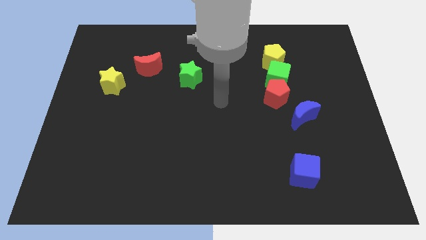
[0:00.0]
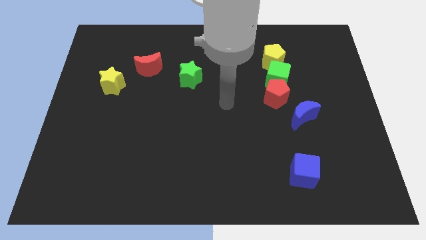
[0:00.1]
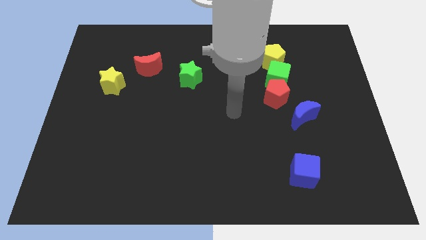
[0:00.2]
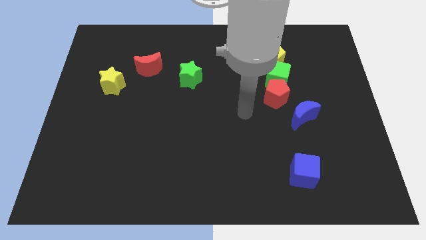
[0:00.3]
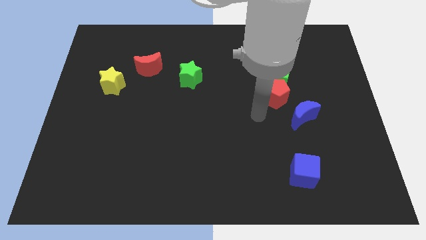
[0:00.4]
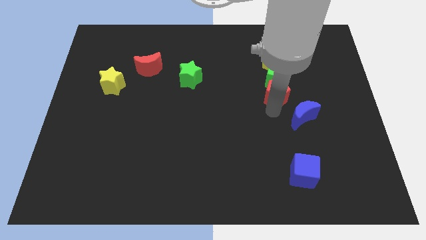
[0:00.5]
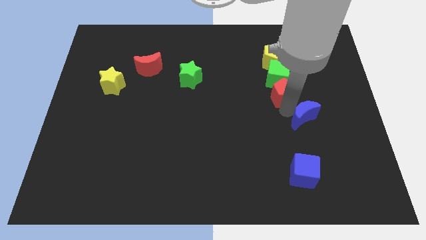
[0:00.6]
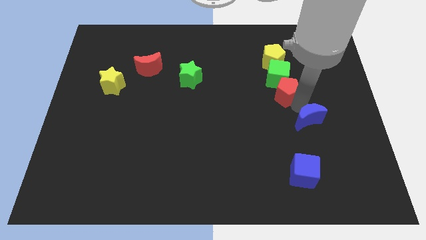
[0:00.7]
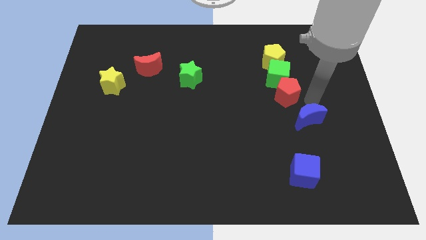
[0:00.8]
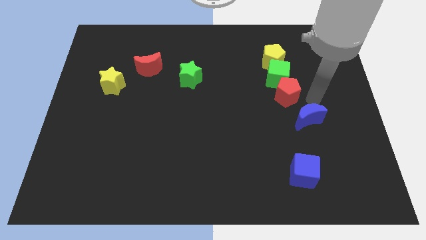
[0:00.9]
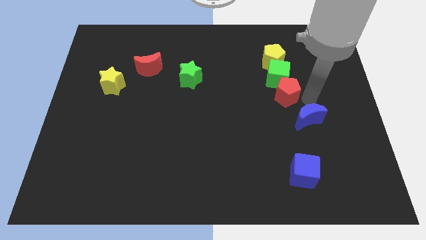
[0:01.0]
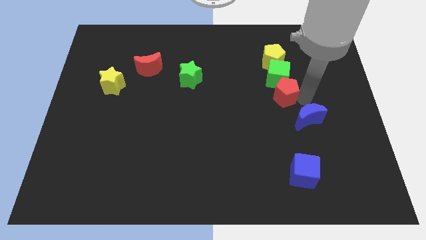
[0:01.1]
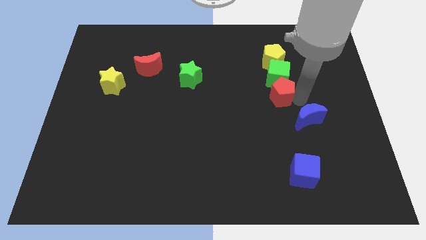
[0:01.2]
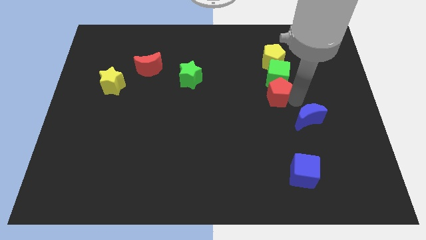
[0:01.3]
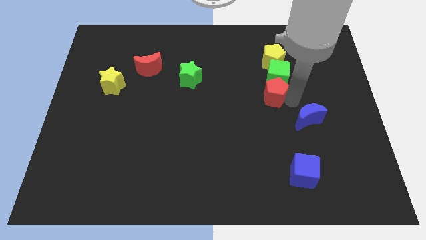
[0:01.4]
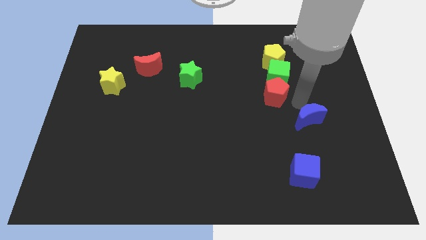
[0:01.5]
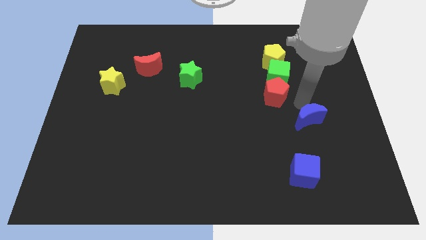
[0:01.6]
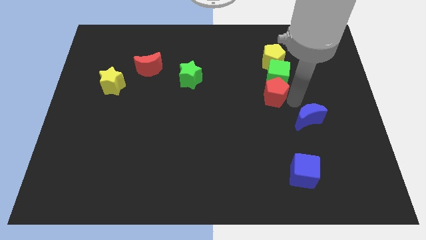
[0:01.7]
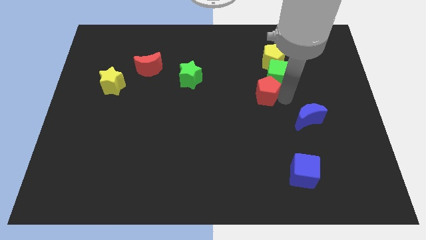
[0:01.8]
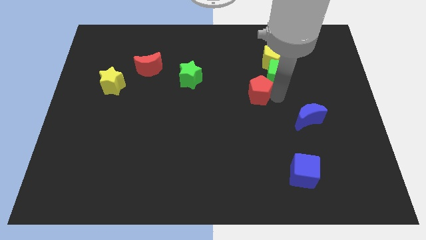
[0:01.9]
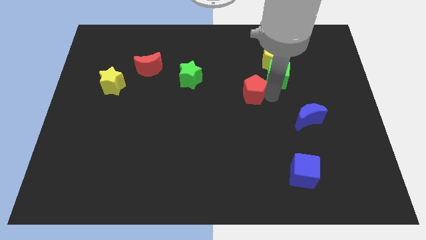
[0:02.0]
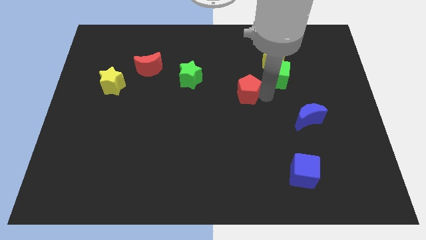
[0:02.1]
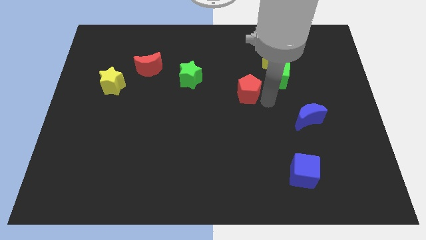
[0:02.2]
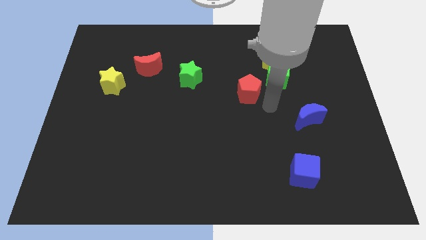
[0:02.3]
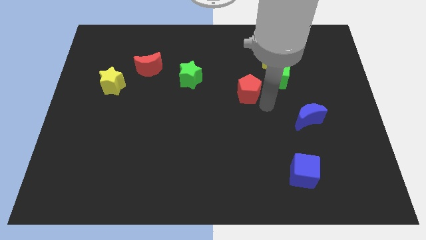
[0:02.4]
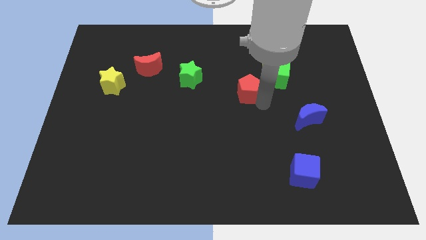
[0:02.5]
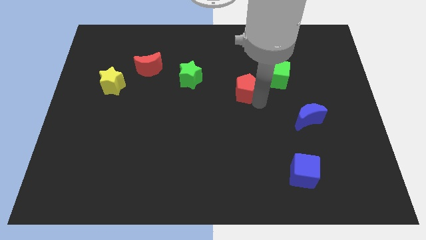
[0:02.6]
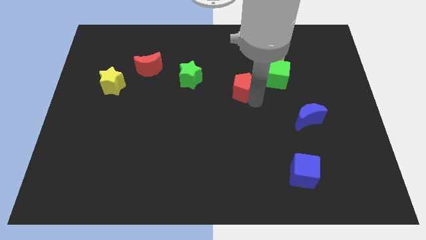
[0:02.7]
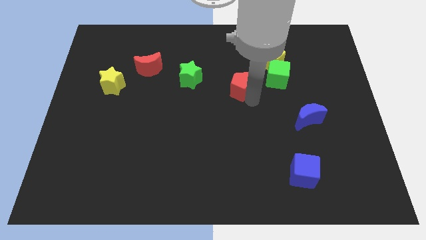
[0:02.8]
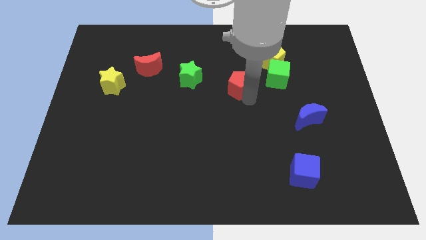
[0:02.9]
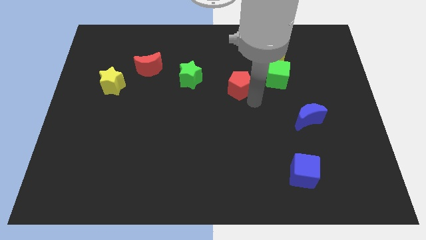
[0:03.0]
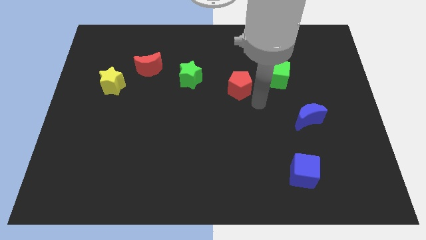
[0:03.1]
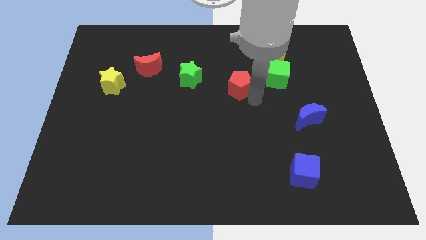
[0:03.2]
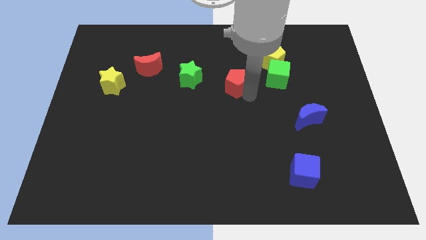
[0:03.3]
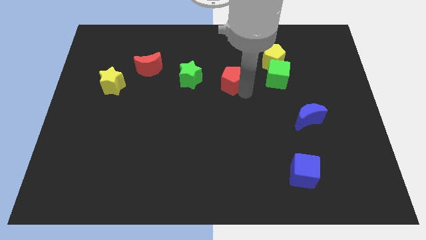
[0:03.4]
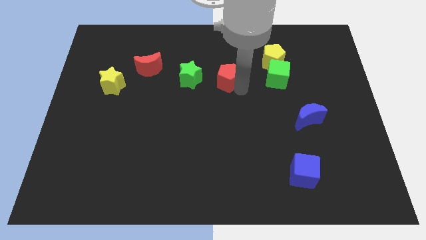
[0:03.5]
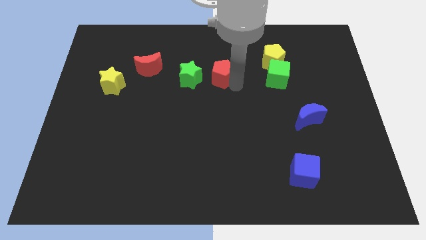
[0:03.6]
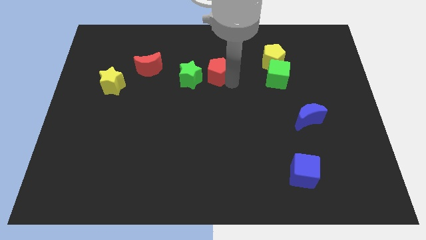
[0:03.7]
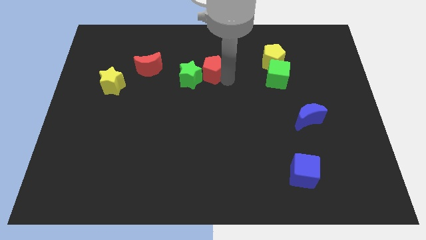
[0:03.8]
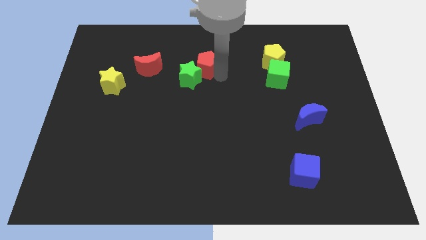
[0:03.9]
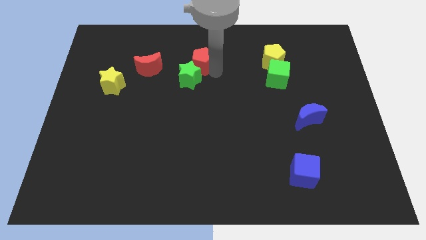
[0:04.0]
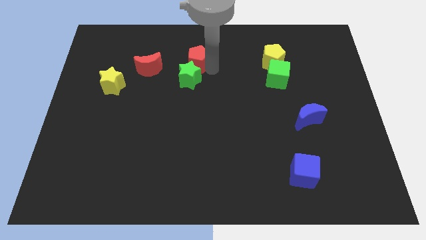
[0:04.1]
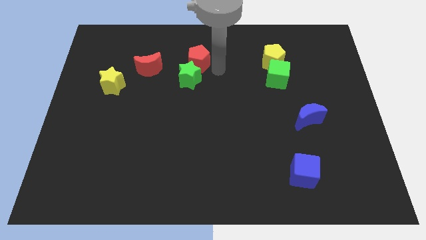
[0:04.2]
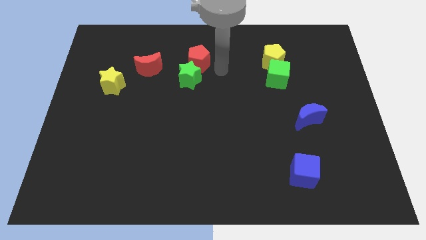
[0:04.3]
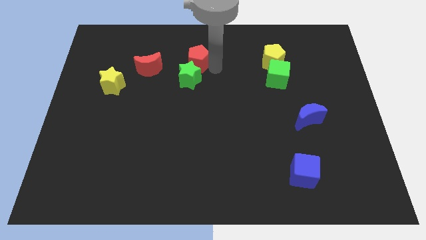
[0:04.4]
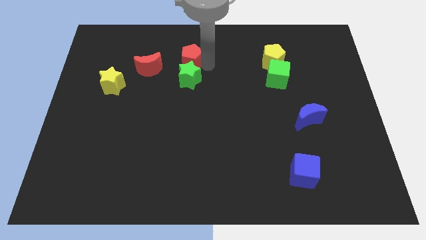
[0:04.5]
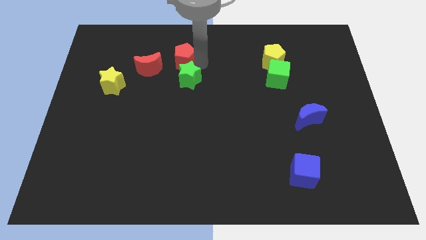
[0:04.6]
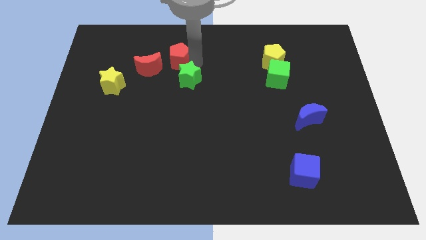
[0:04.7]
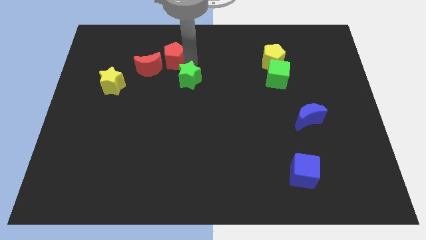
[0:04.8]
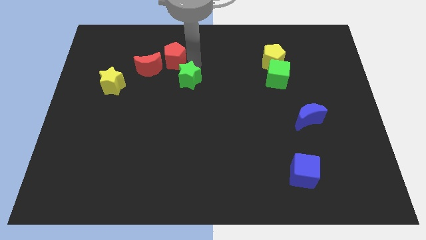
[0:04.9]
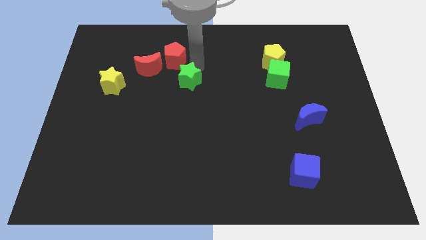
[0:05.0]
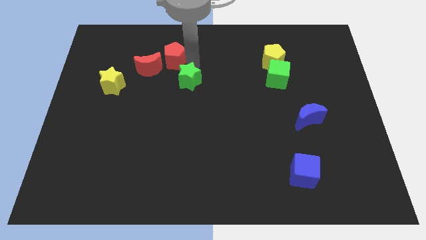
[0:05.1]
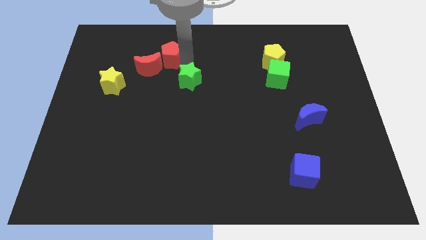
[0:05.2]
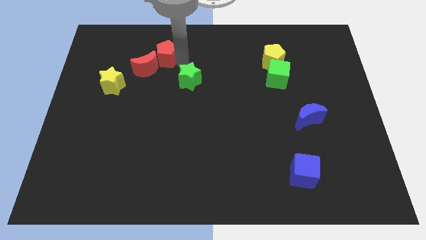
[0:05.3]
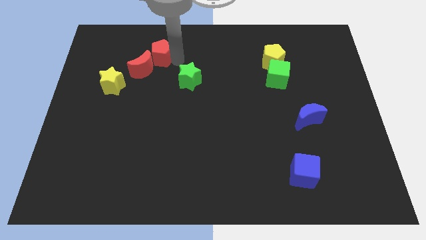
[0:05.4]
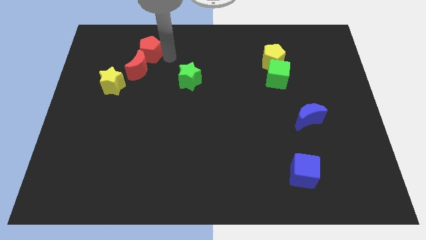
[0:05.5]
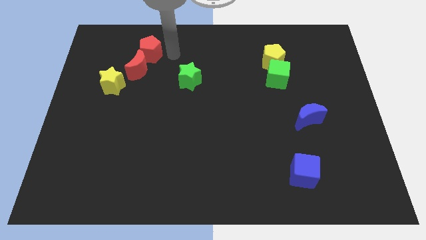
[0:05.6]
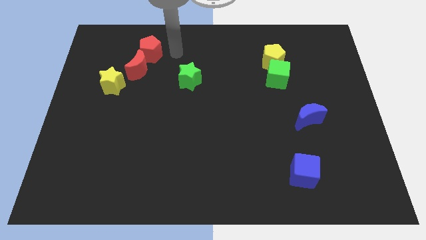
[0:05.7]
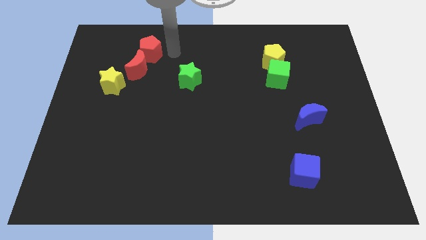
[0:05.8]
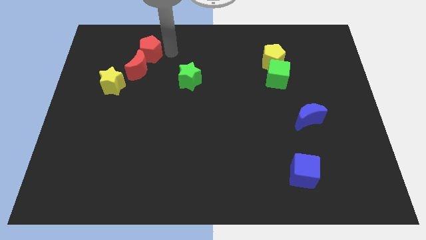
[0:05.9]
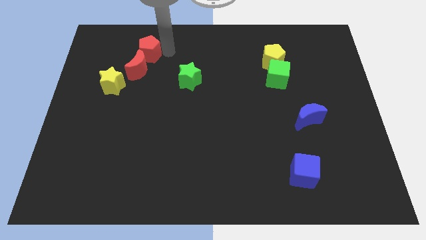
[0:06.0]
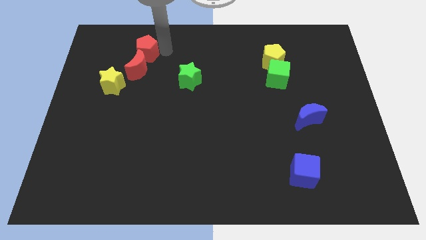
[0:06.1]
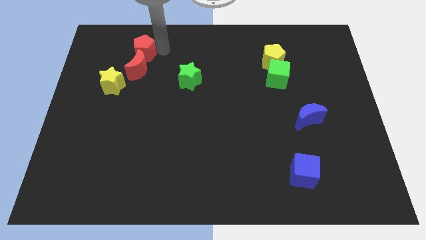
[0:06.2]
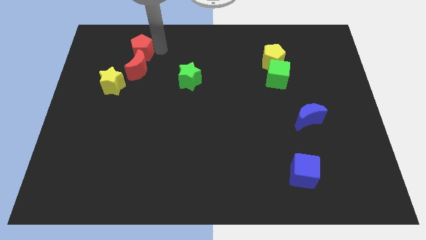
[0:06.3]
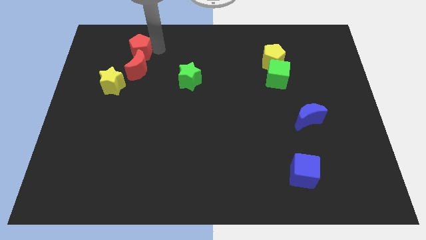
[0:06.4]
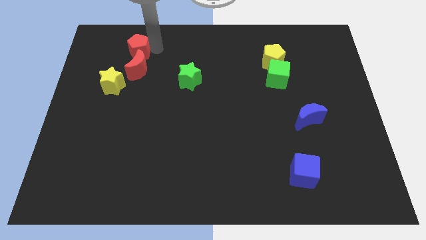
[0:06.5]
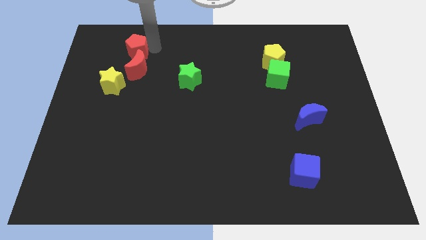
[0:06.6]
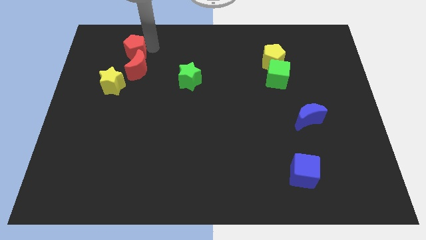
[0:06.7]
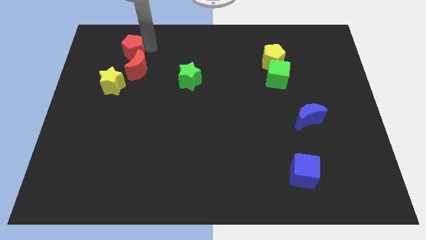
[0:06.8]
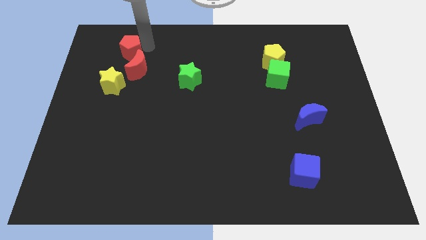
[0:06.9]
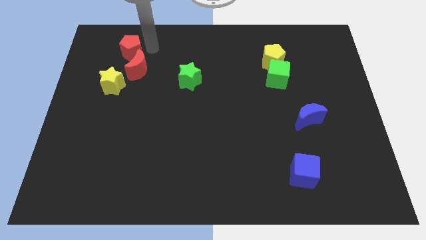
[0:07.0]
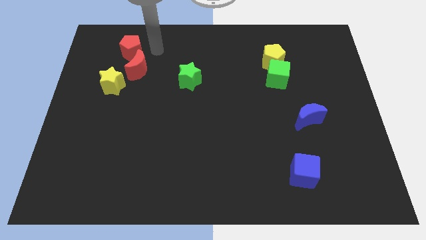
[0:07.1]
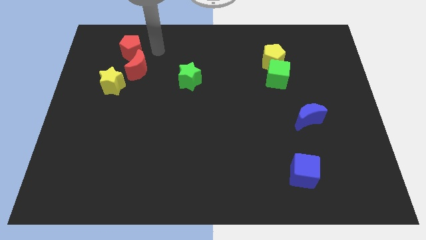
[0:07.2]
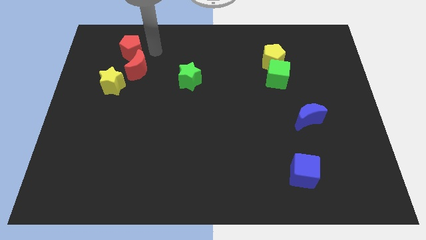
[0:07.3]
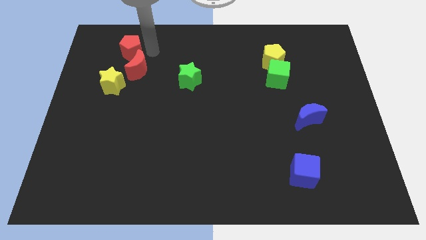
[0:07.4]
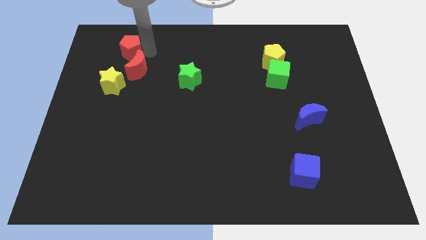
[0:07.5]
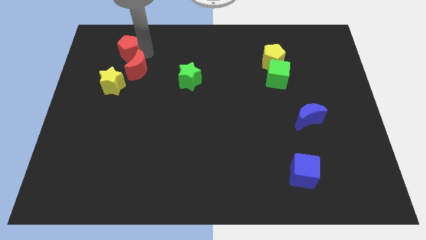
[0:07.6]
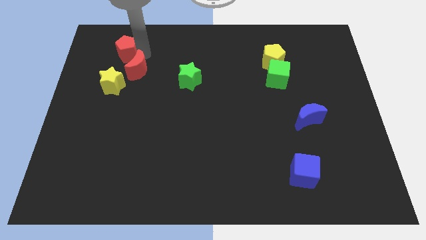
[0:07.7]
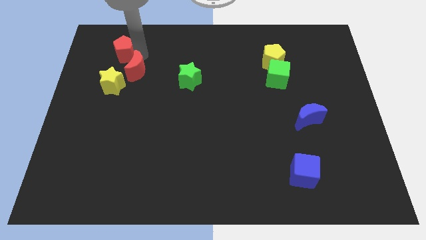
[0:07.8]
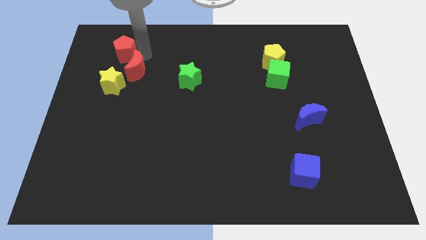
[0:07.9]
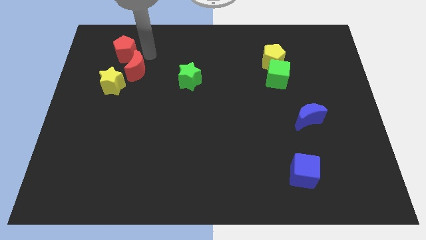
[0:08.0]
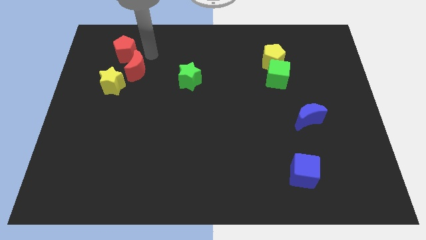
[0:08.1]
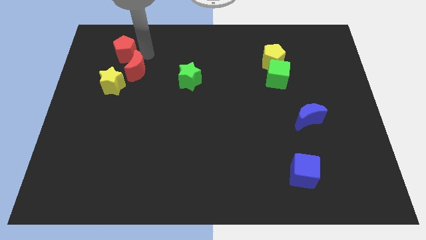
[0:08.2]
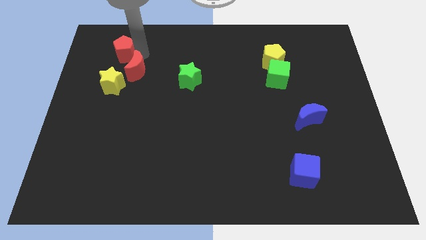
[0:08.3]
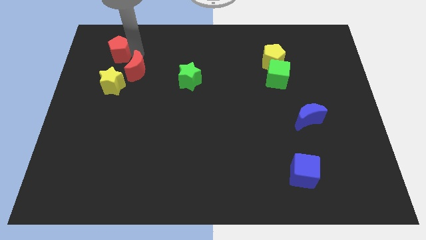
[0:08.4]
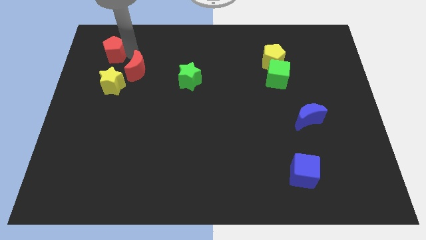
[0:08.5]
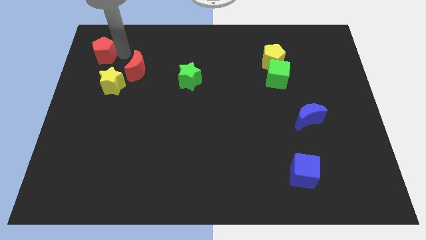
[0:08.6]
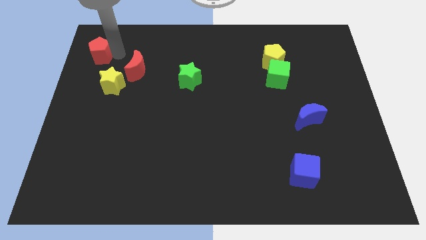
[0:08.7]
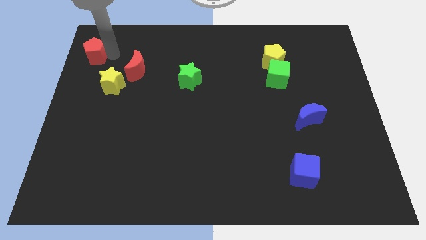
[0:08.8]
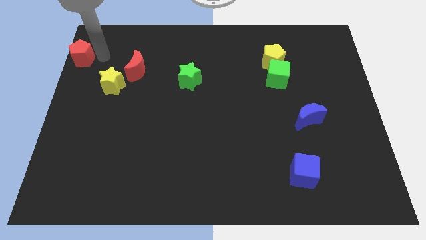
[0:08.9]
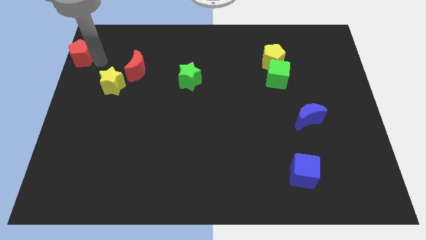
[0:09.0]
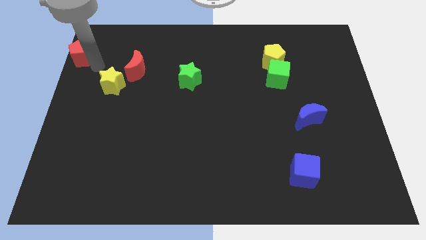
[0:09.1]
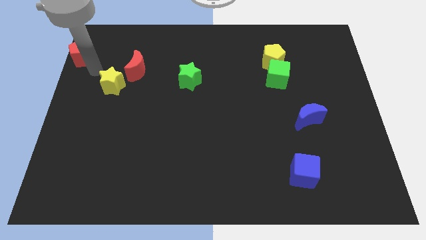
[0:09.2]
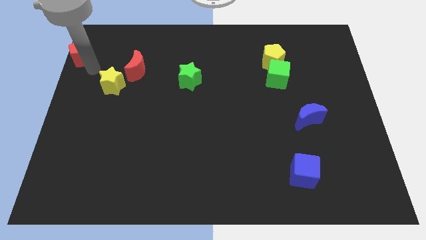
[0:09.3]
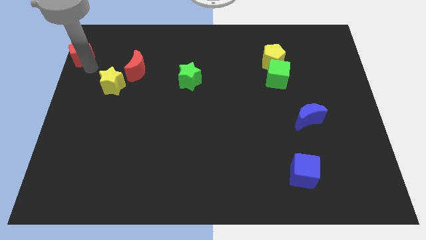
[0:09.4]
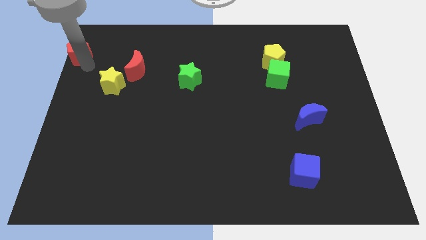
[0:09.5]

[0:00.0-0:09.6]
put the red pentagon to the top left
